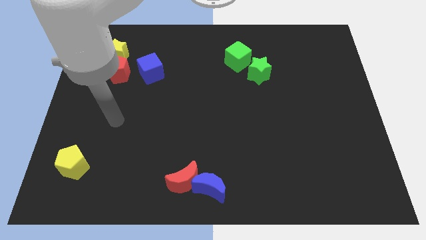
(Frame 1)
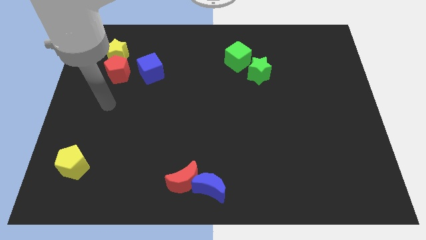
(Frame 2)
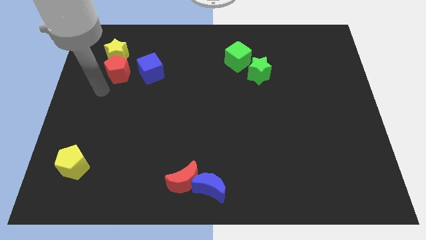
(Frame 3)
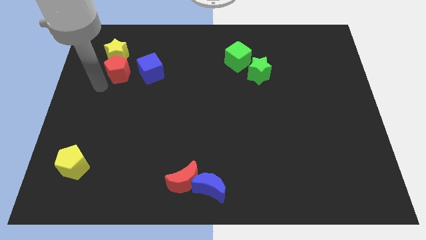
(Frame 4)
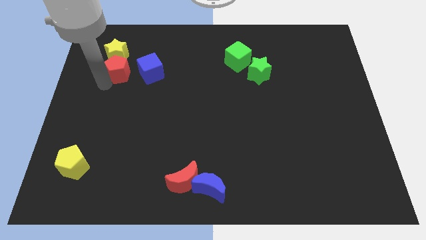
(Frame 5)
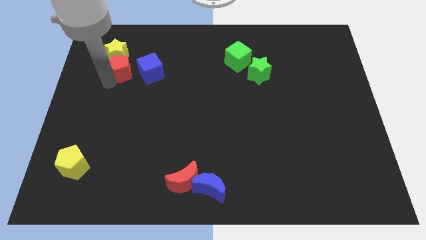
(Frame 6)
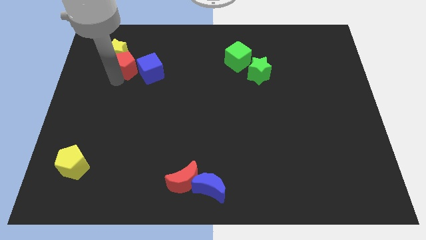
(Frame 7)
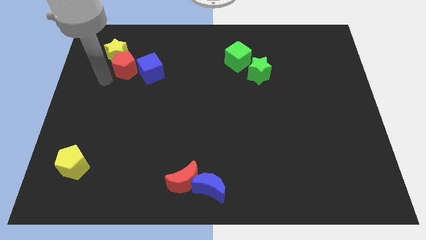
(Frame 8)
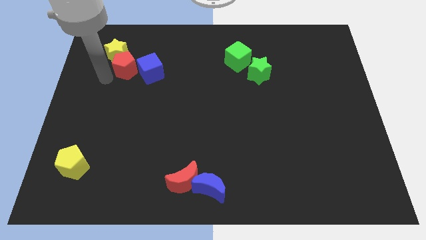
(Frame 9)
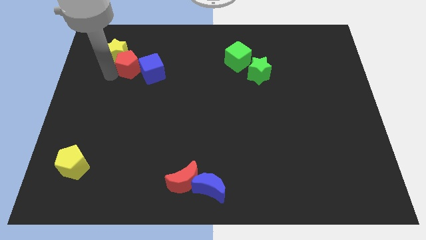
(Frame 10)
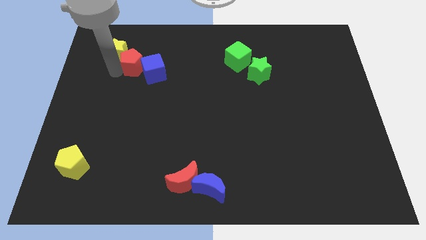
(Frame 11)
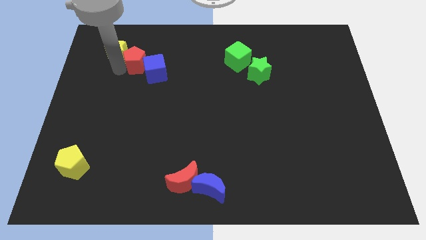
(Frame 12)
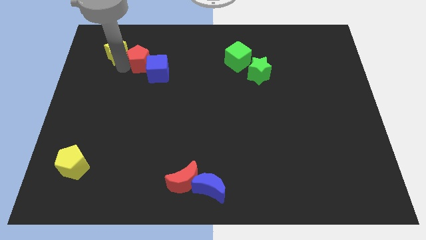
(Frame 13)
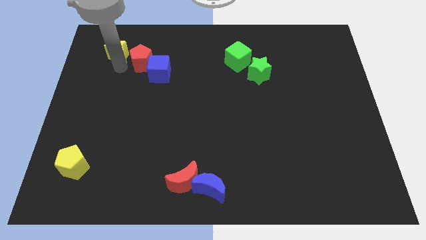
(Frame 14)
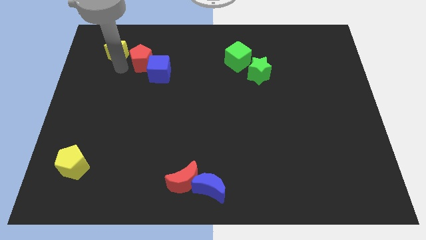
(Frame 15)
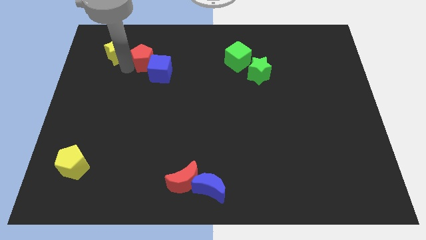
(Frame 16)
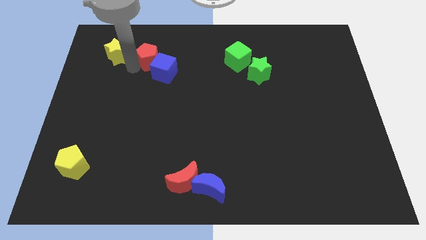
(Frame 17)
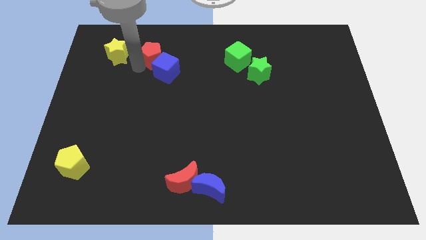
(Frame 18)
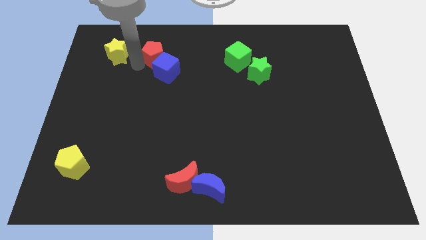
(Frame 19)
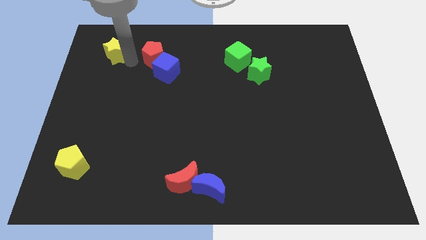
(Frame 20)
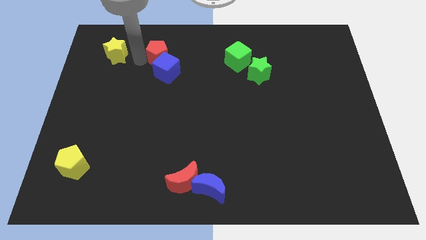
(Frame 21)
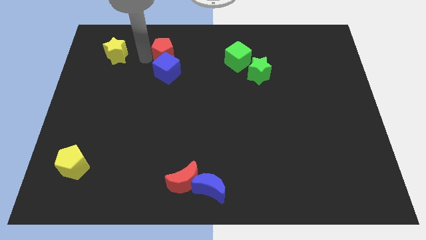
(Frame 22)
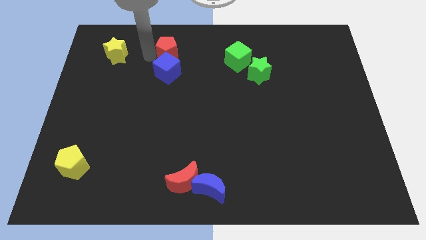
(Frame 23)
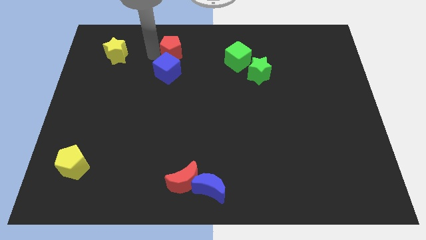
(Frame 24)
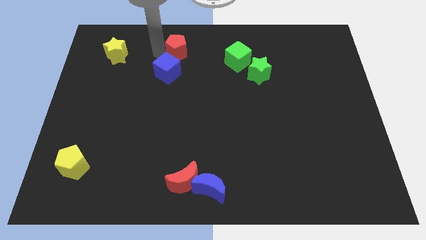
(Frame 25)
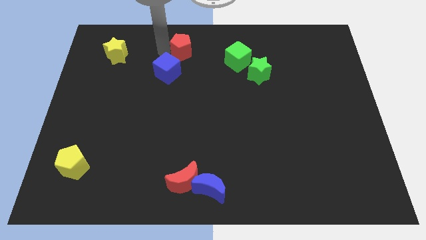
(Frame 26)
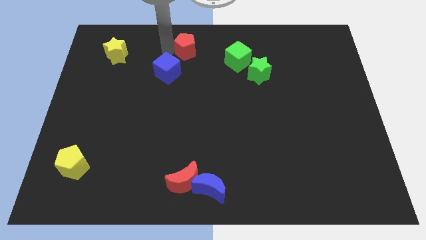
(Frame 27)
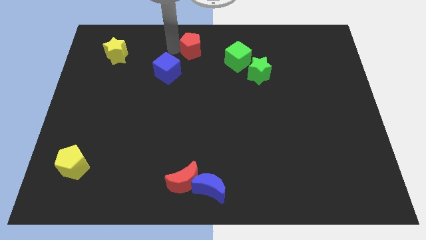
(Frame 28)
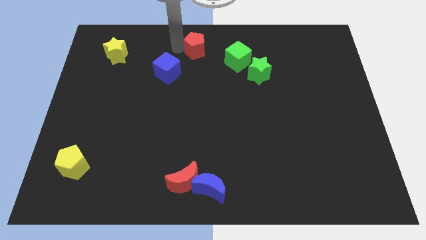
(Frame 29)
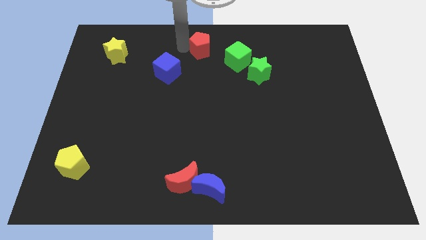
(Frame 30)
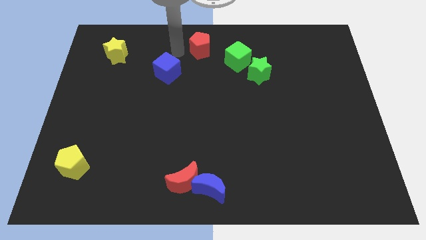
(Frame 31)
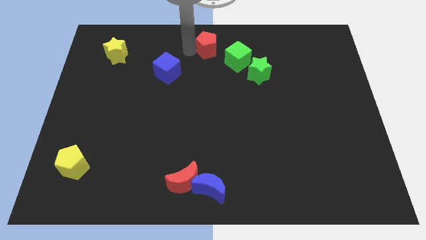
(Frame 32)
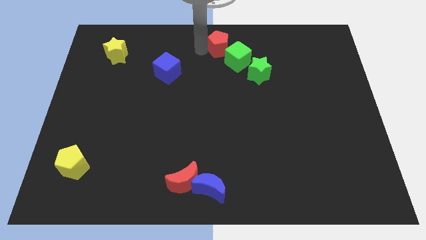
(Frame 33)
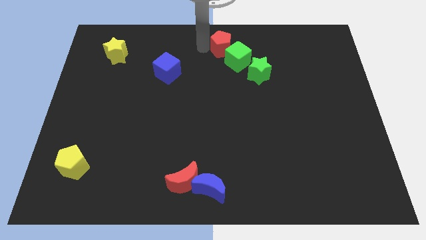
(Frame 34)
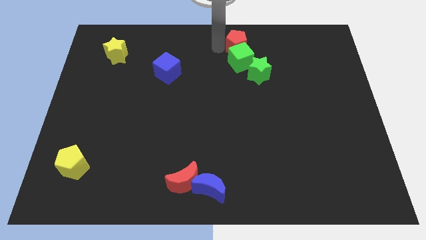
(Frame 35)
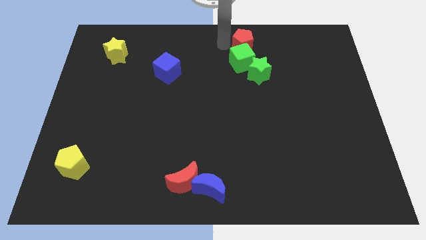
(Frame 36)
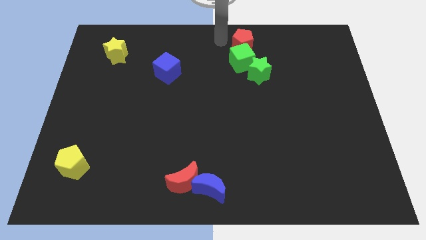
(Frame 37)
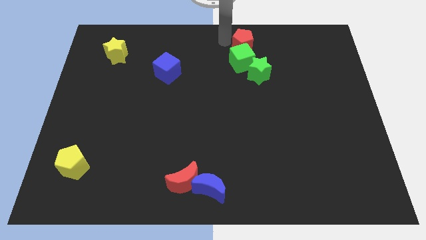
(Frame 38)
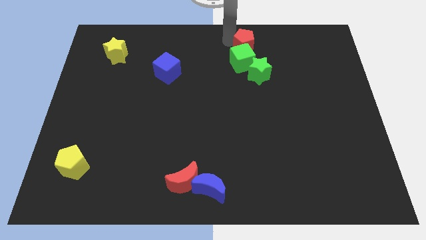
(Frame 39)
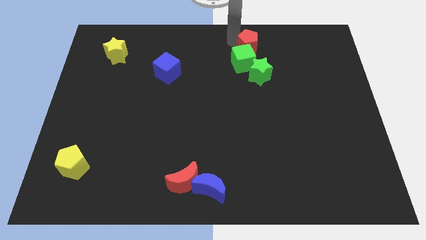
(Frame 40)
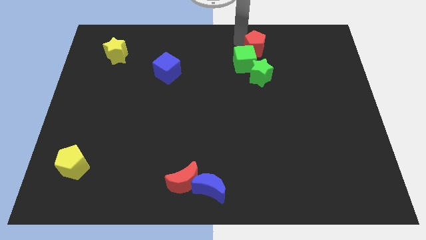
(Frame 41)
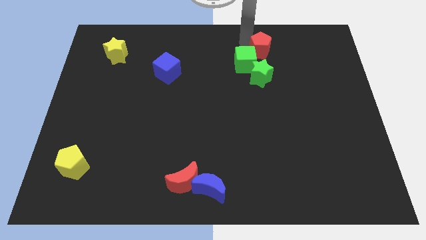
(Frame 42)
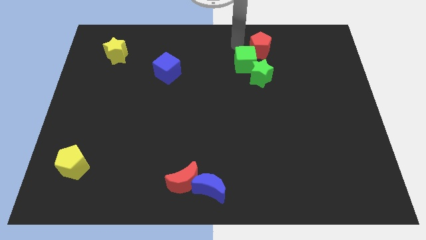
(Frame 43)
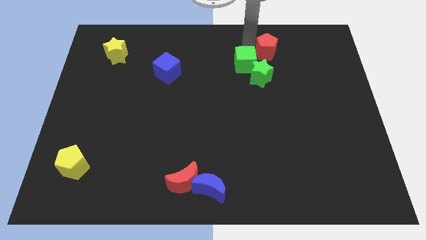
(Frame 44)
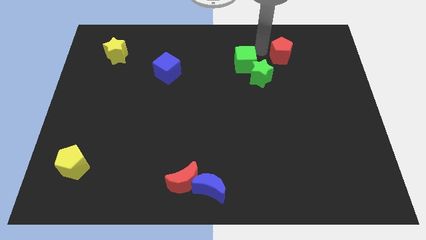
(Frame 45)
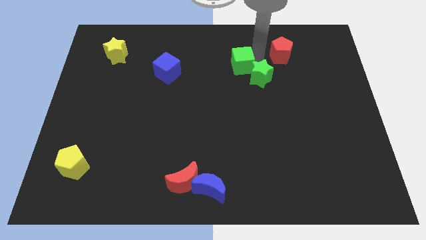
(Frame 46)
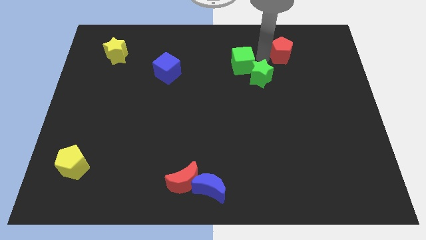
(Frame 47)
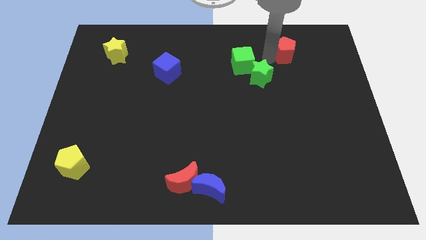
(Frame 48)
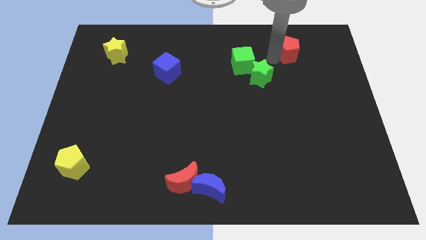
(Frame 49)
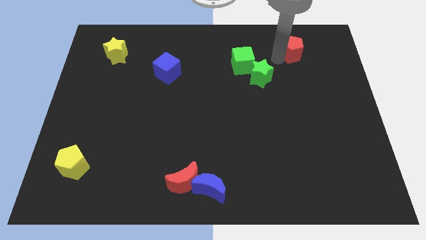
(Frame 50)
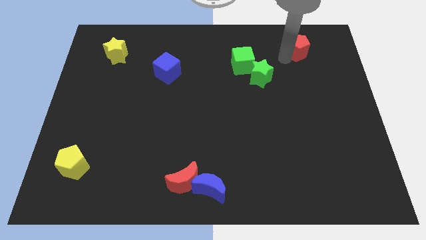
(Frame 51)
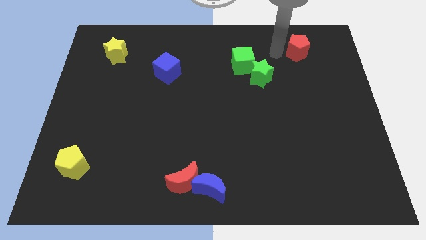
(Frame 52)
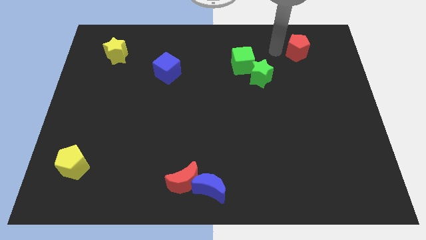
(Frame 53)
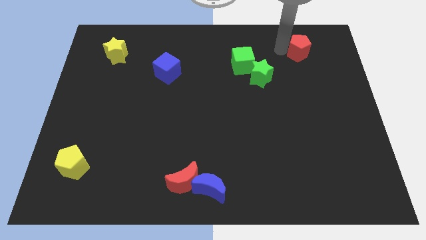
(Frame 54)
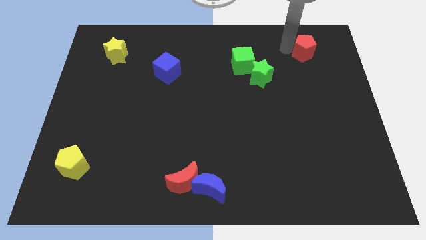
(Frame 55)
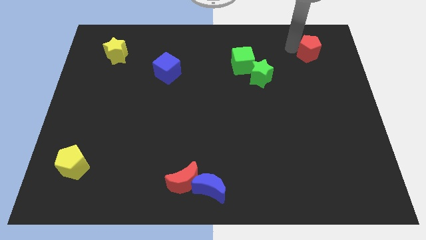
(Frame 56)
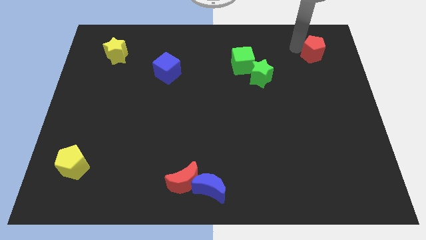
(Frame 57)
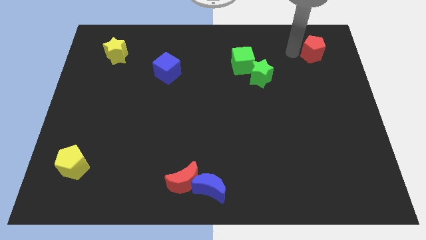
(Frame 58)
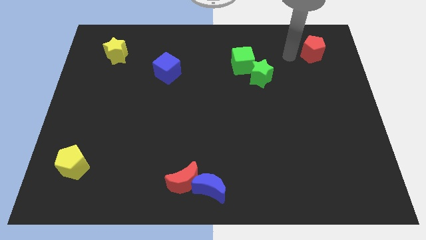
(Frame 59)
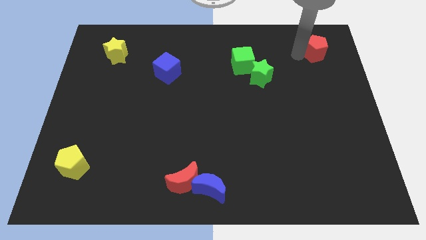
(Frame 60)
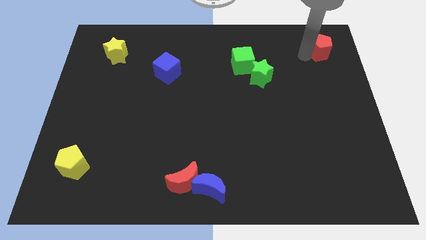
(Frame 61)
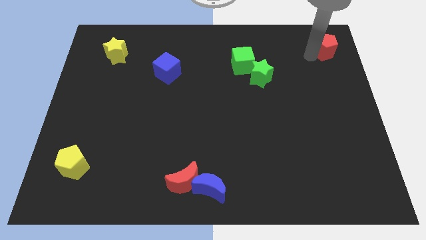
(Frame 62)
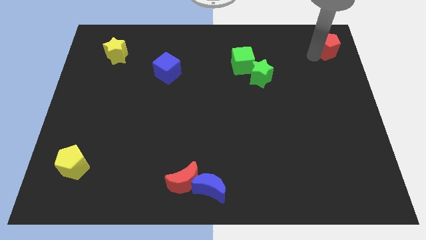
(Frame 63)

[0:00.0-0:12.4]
move the red pentagon to the top right corner
